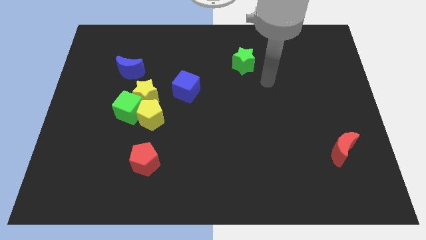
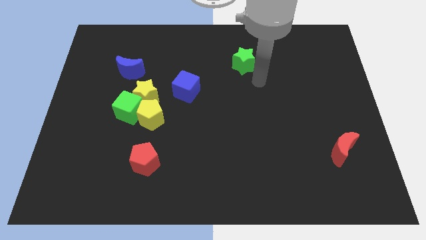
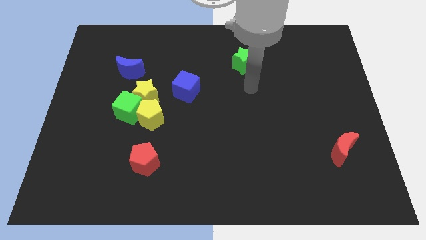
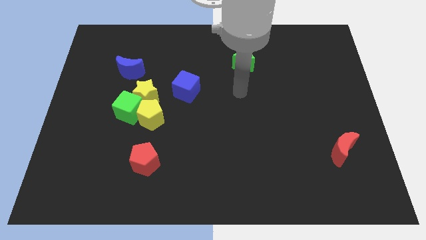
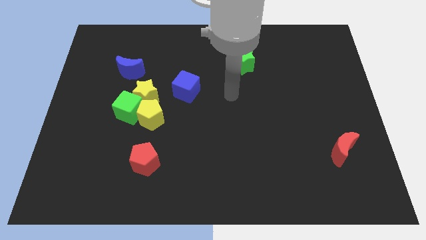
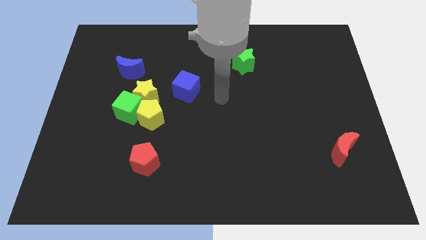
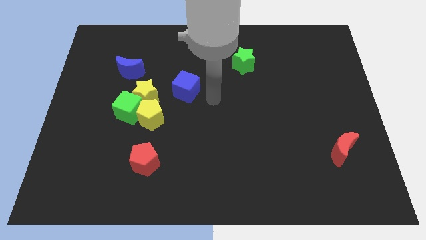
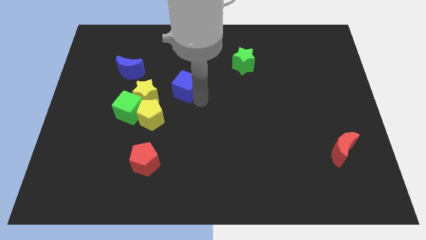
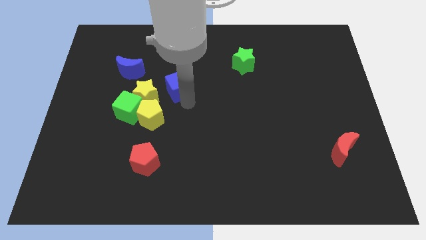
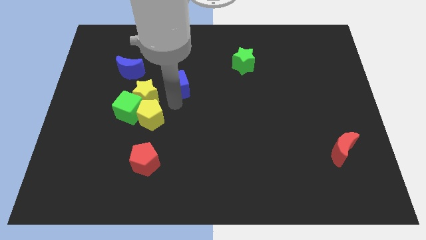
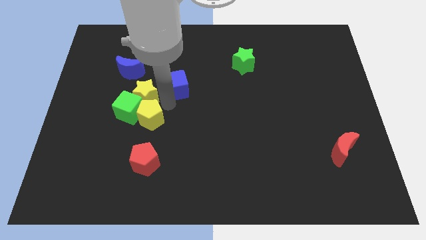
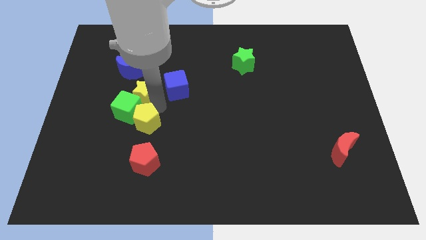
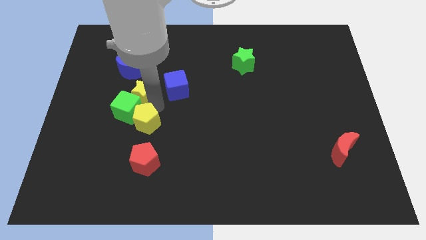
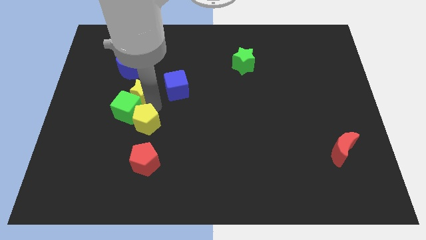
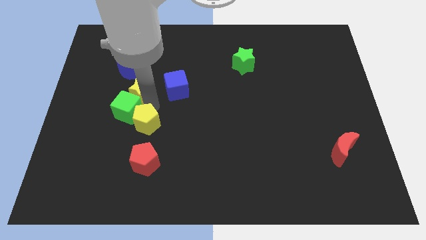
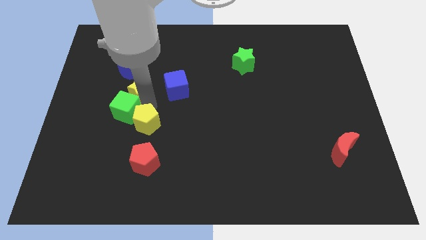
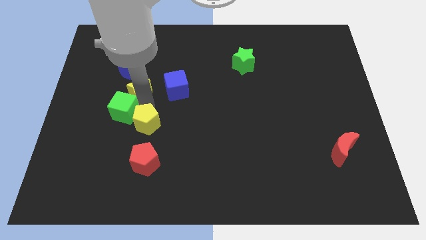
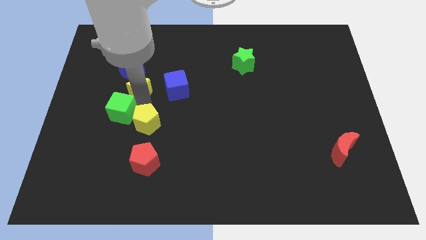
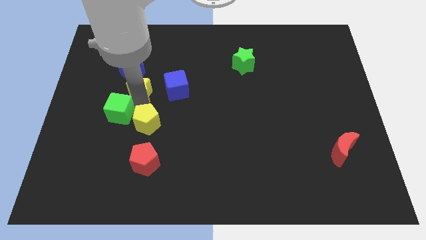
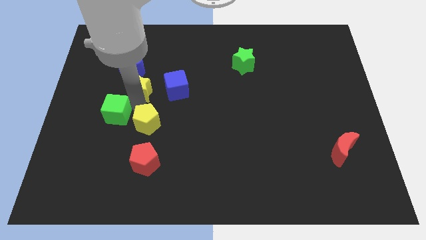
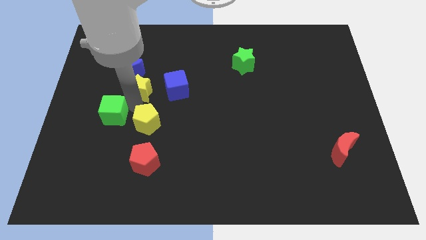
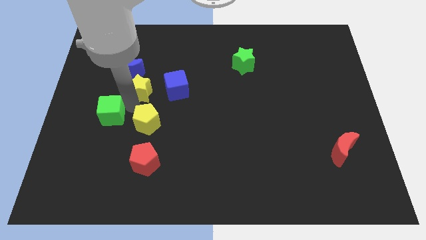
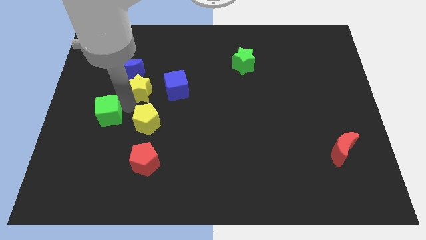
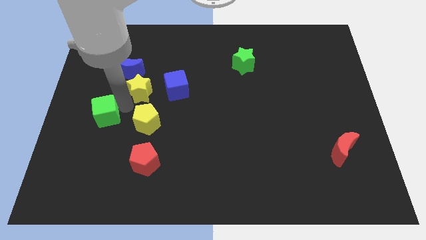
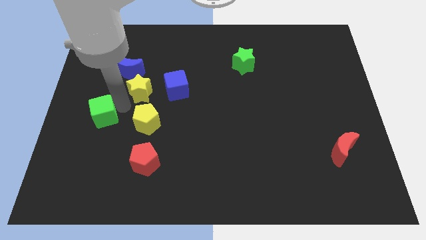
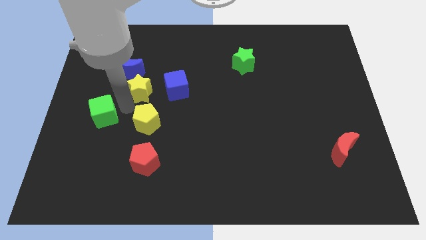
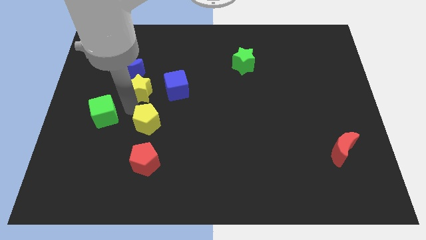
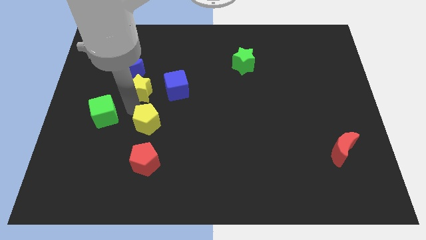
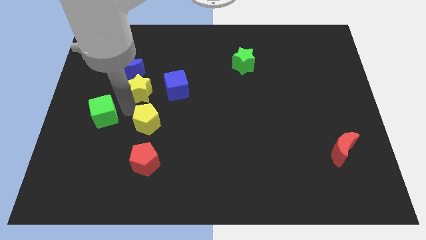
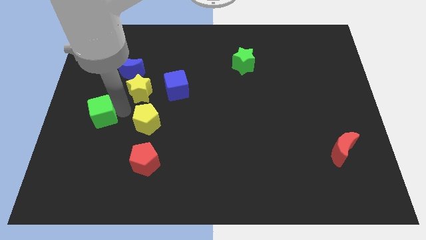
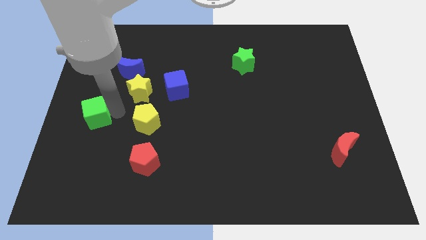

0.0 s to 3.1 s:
pull the green cube apart from the yellow star and yellow pentagon

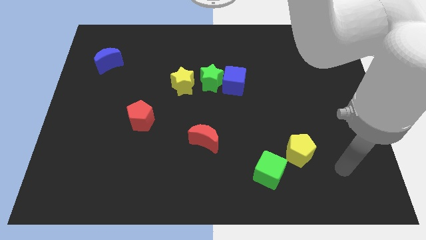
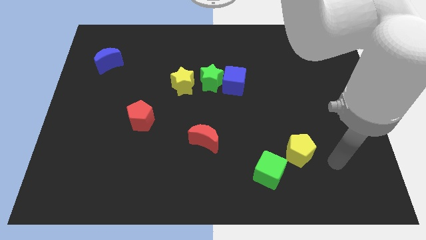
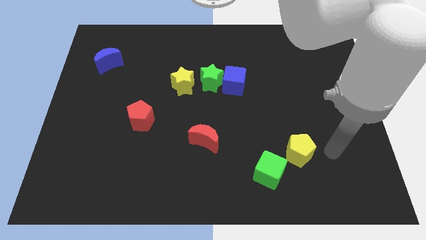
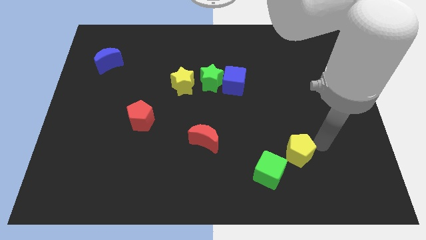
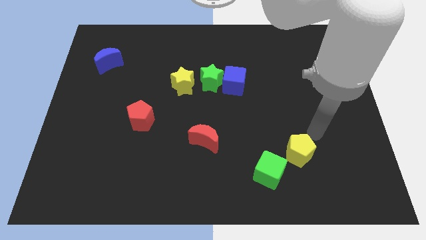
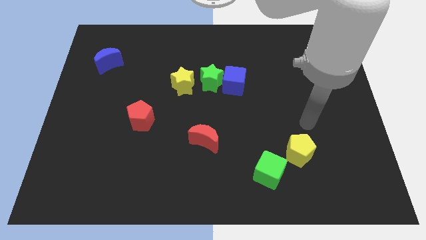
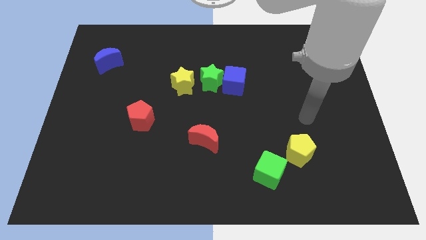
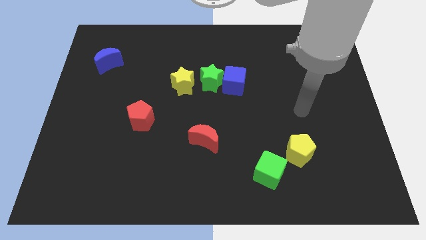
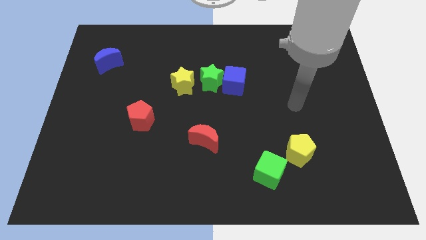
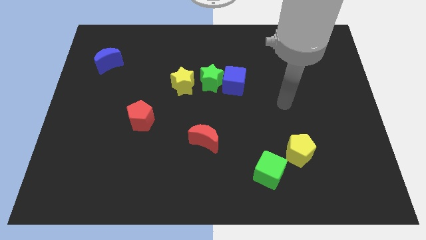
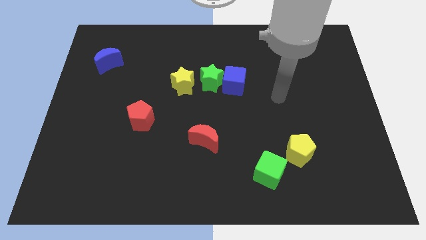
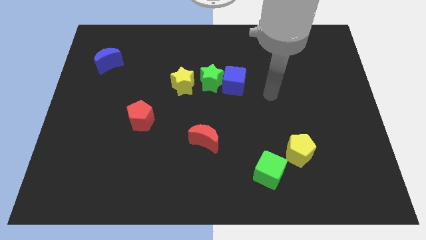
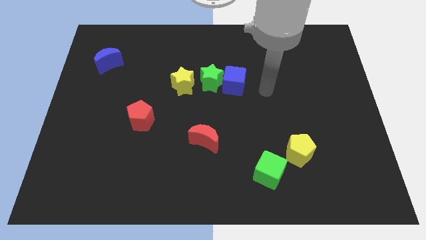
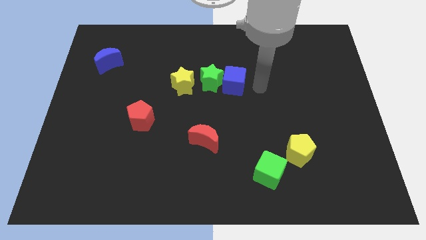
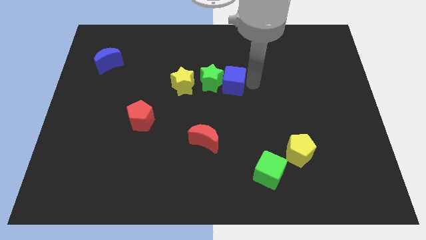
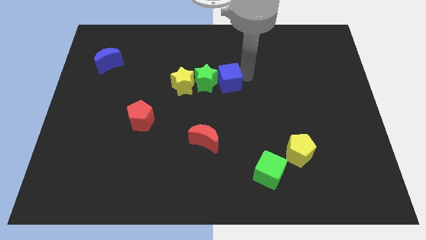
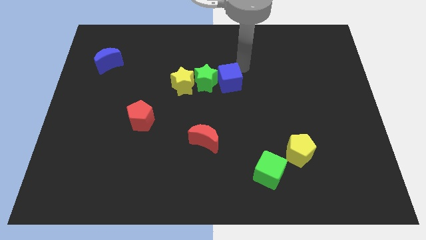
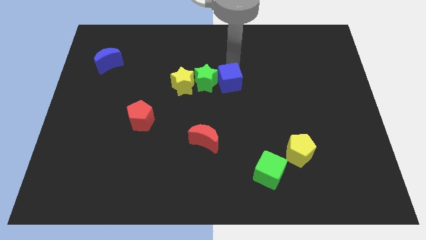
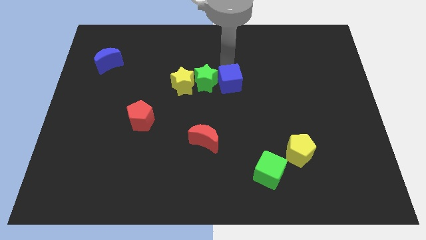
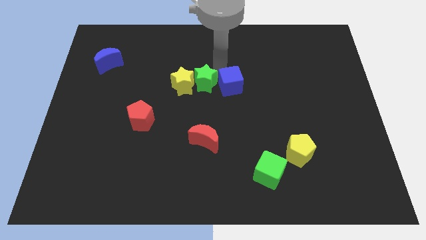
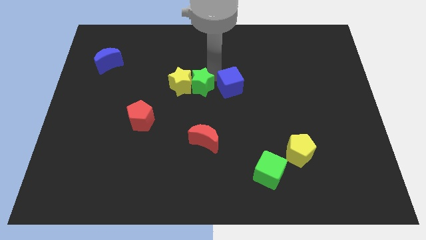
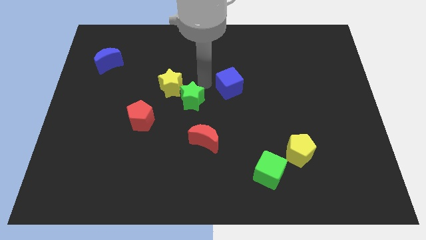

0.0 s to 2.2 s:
move the blue cube away from the green star

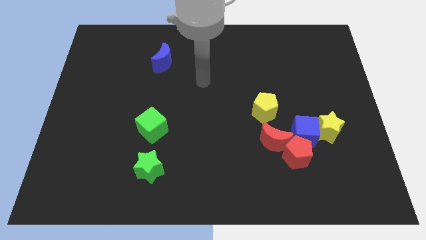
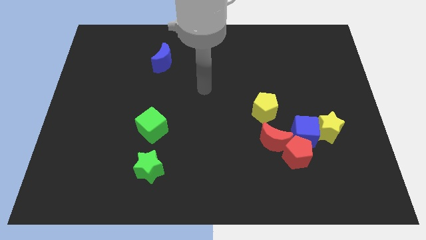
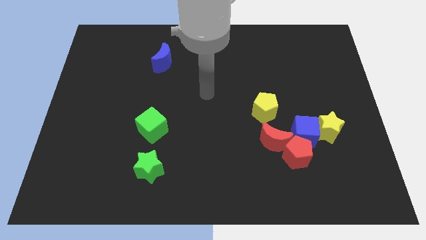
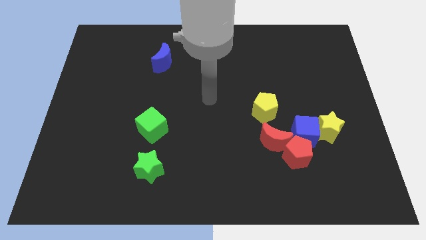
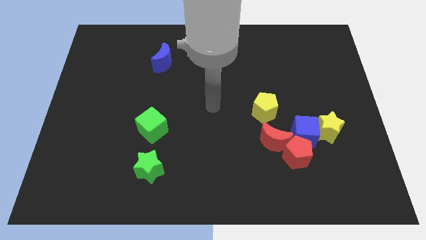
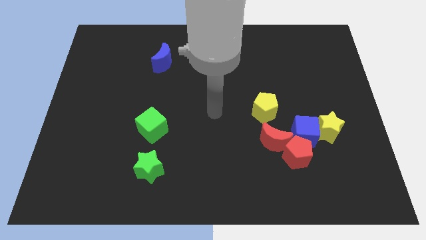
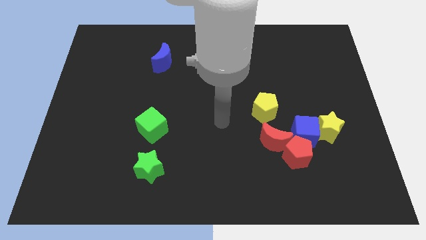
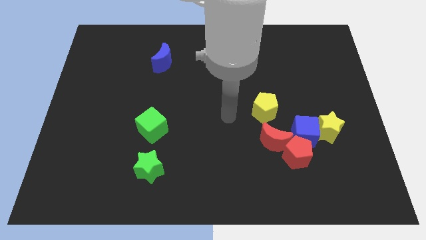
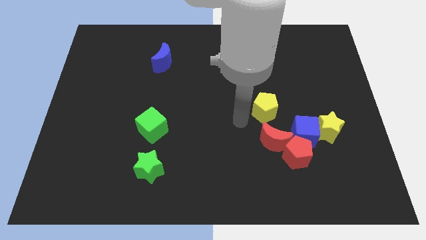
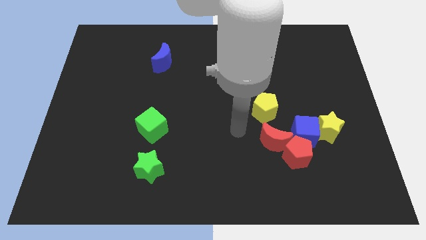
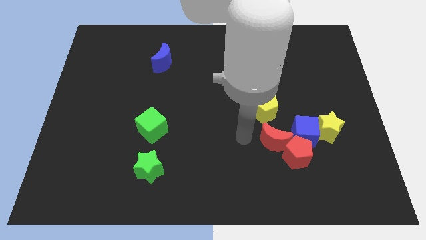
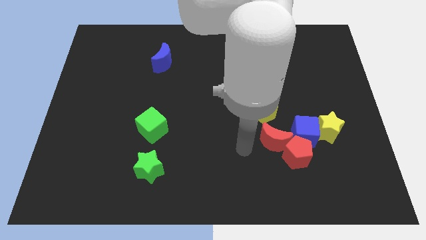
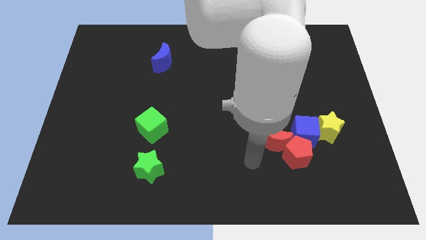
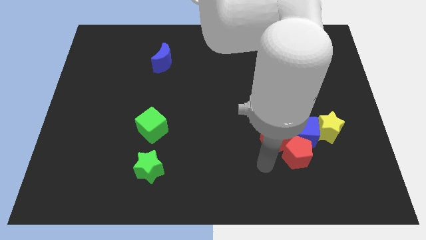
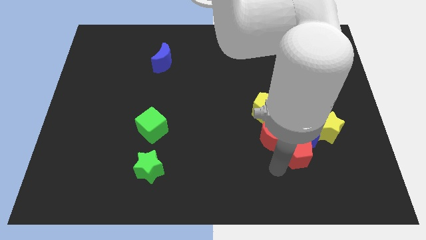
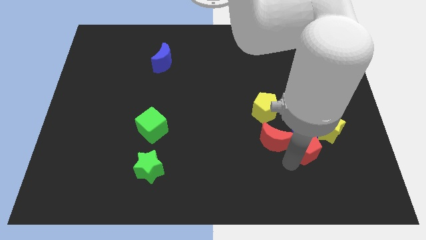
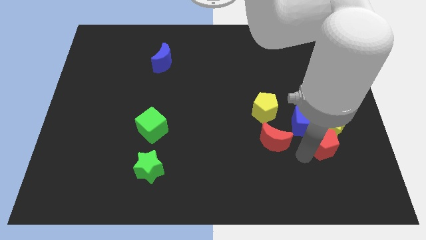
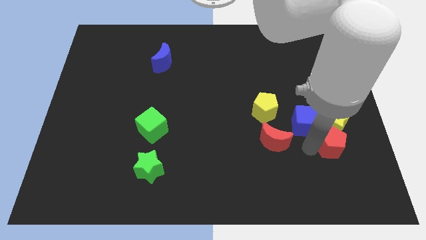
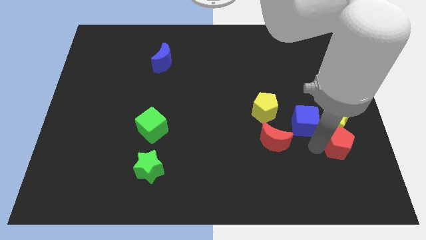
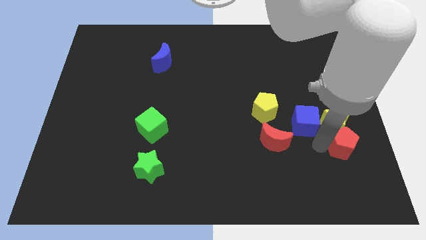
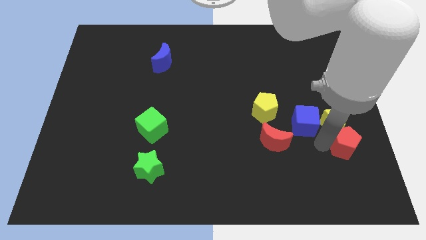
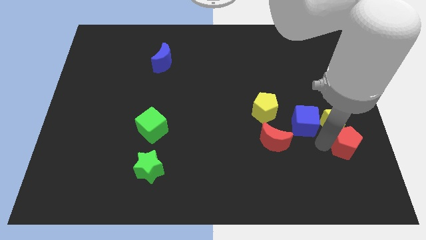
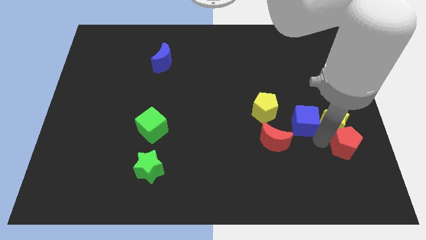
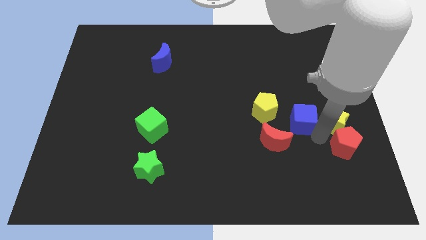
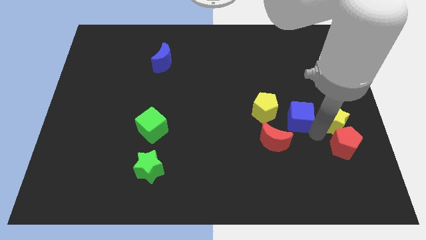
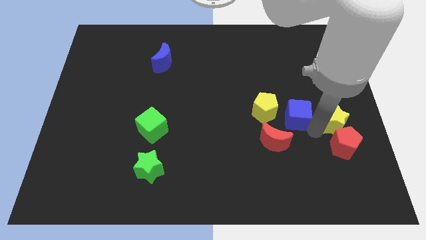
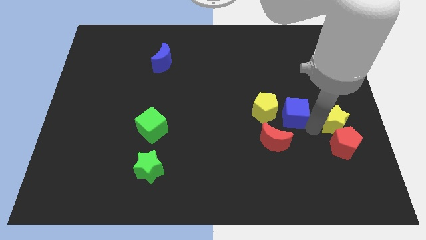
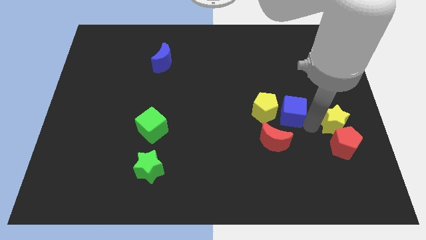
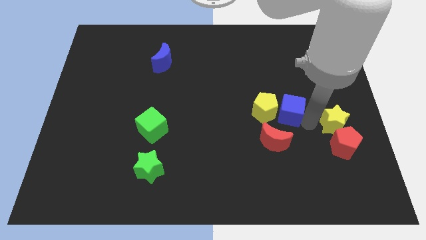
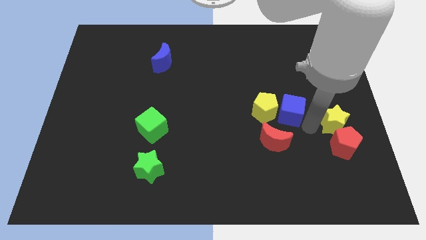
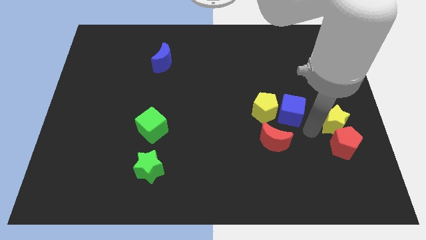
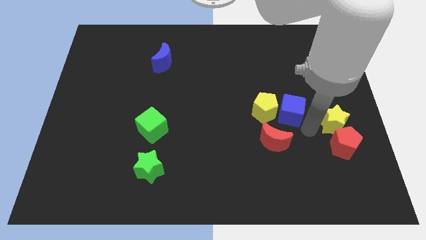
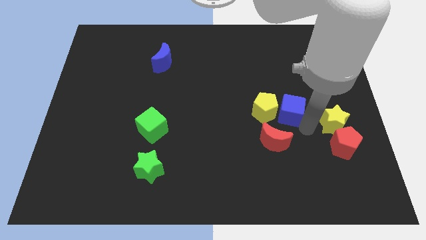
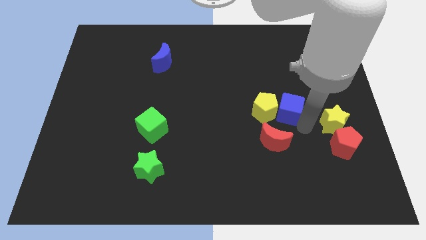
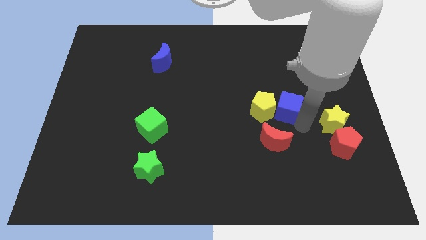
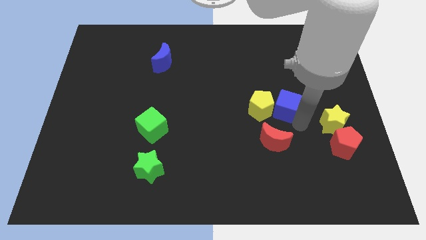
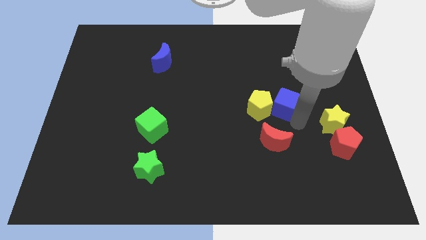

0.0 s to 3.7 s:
separate the blue cube from the group of blocks

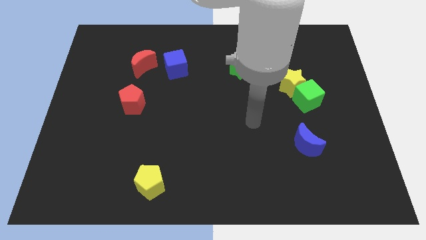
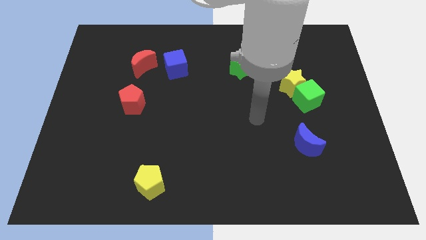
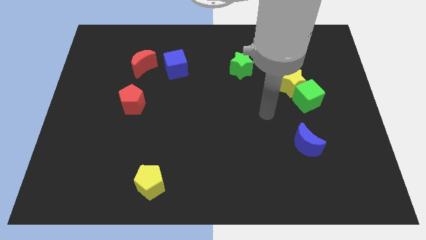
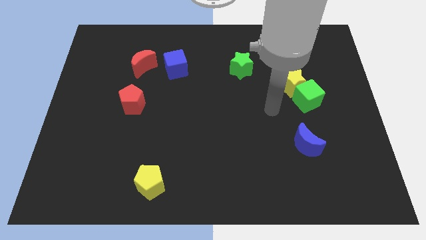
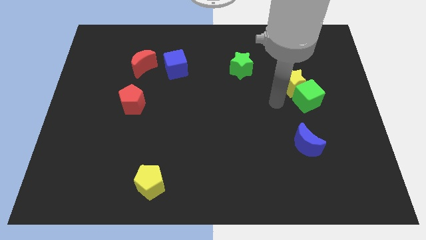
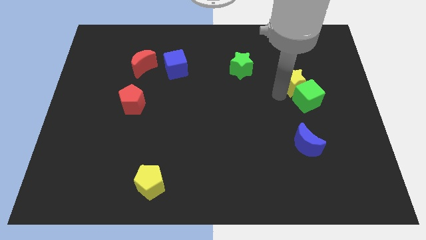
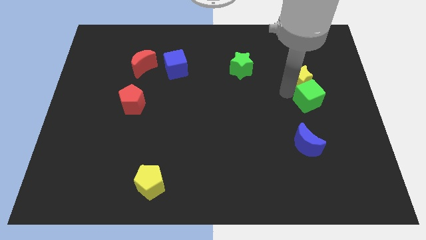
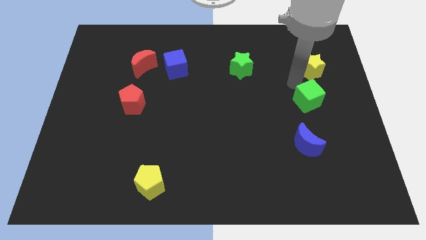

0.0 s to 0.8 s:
move the green cube away from the yellow star
